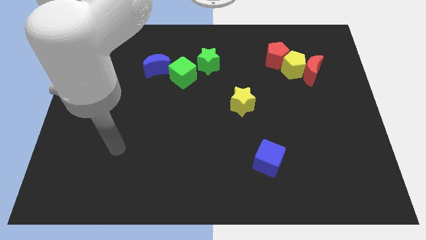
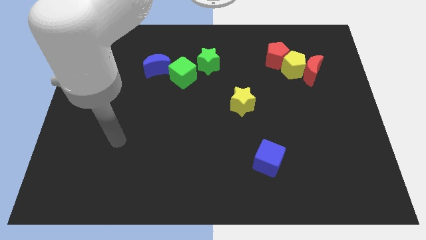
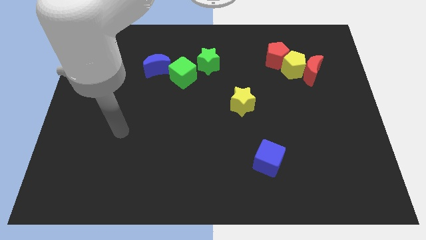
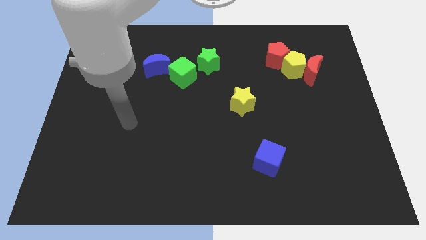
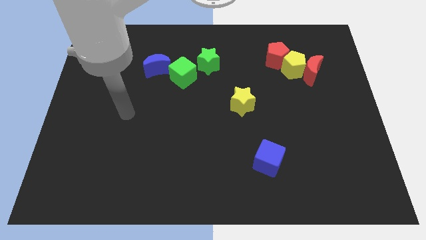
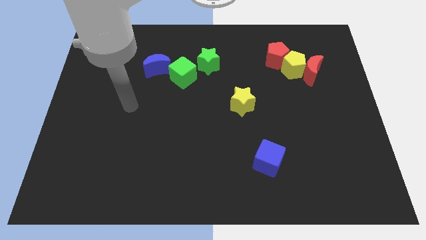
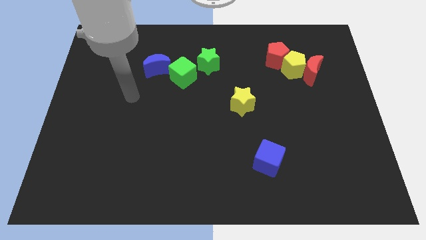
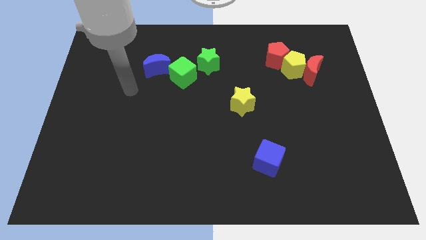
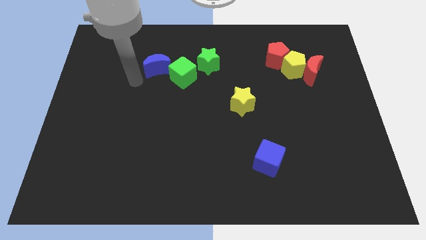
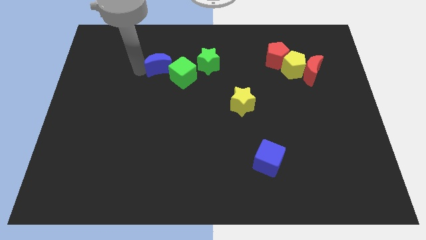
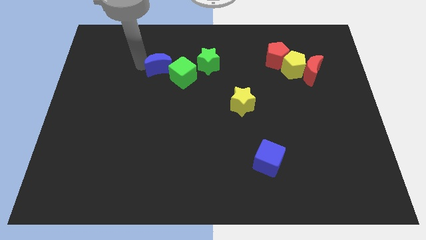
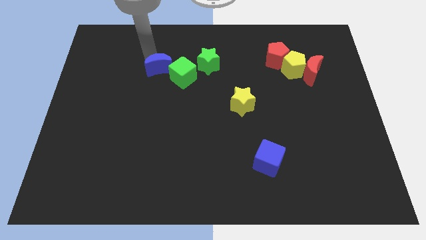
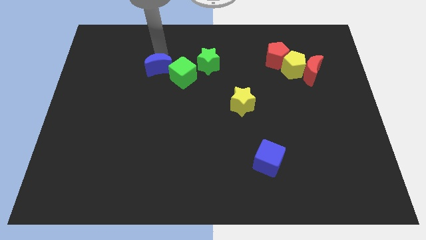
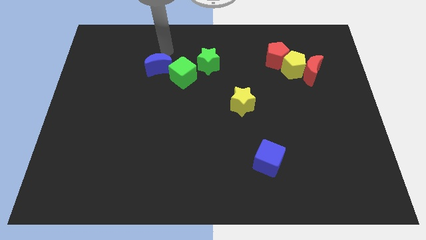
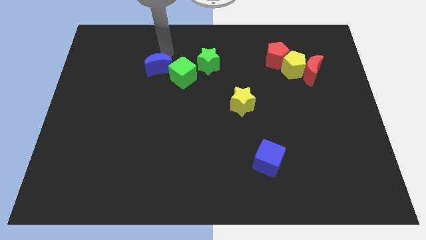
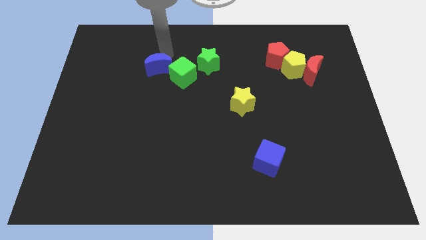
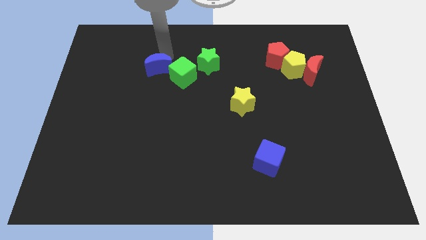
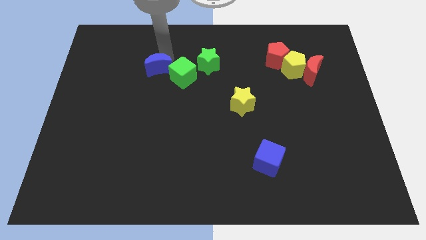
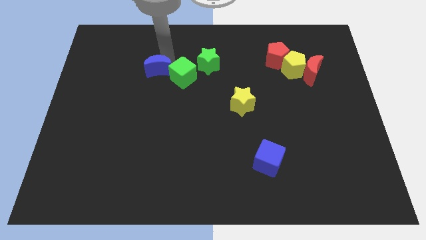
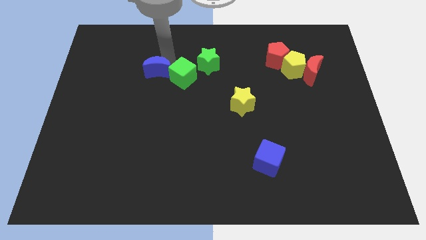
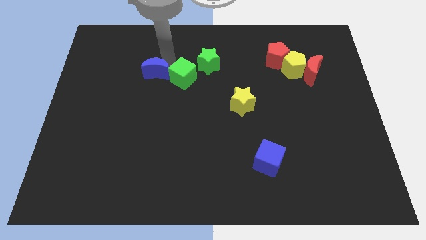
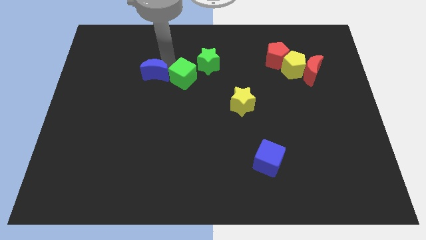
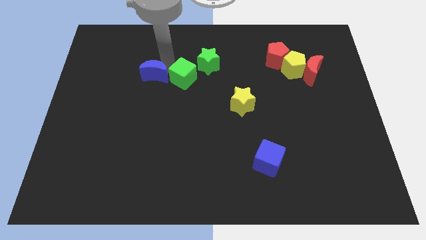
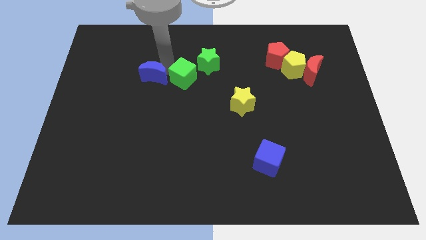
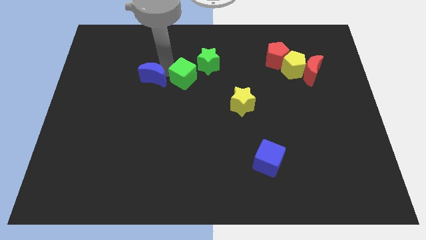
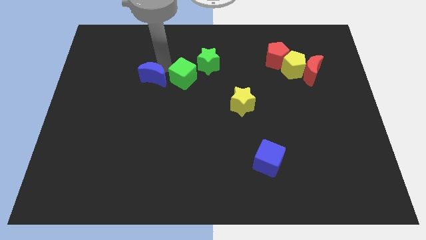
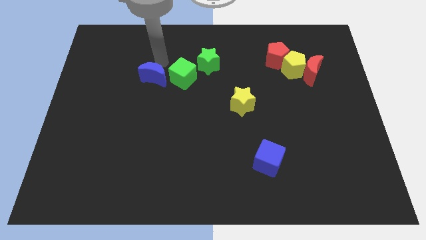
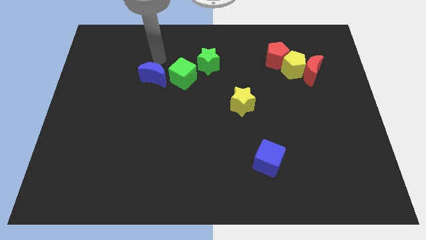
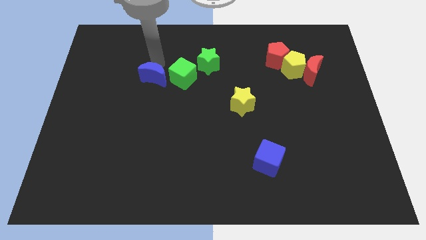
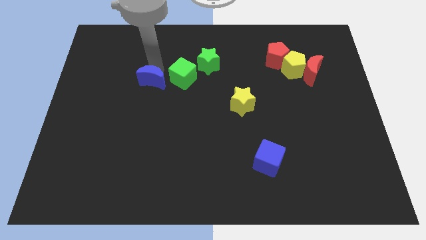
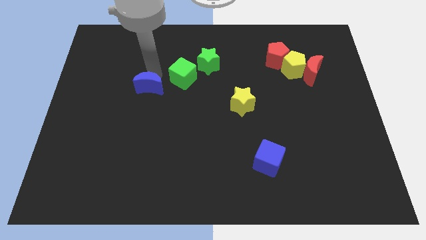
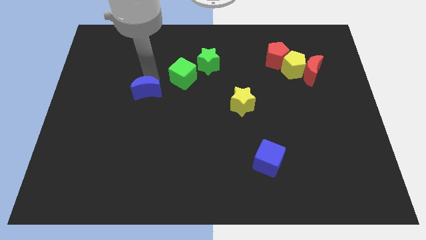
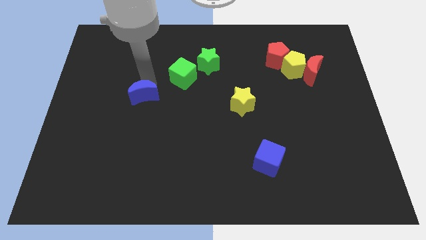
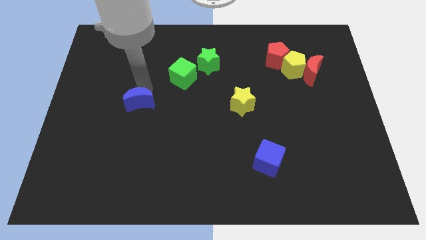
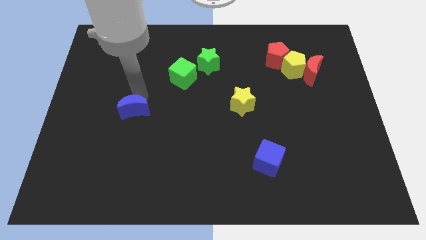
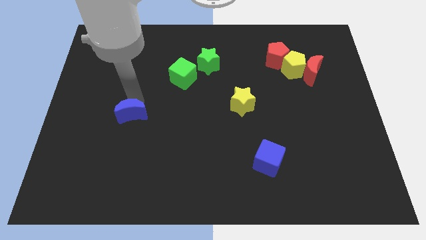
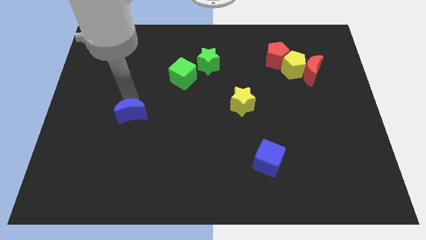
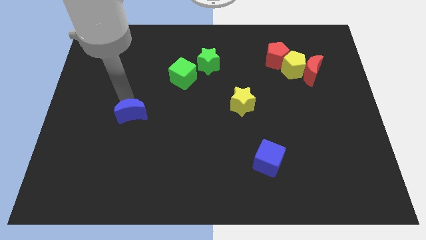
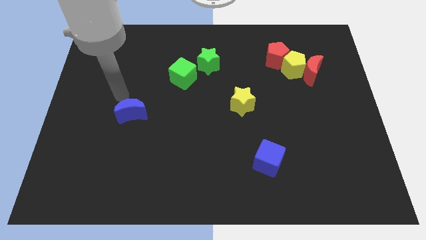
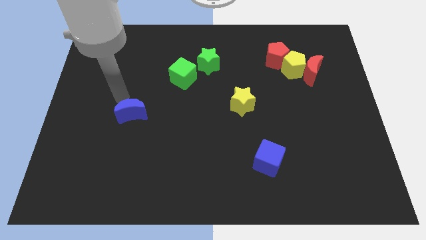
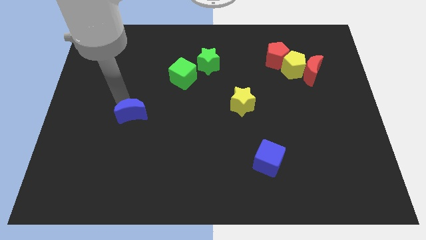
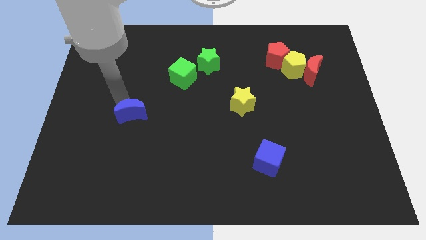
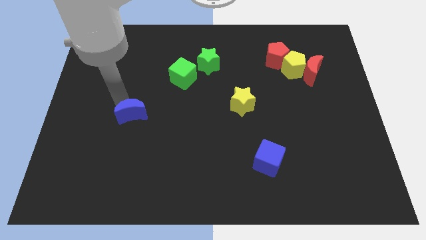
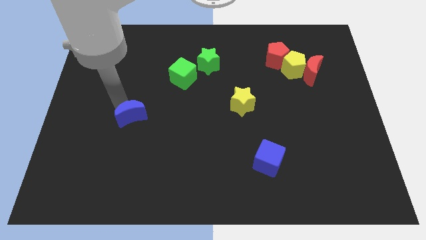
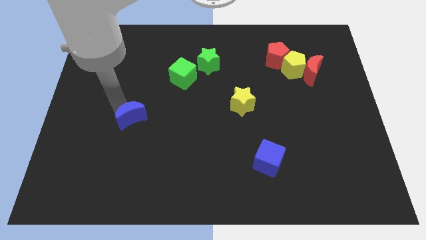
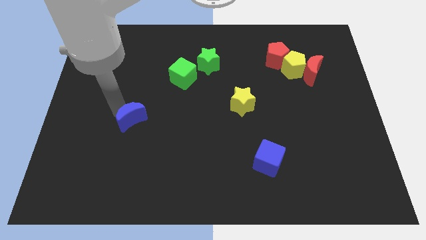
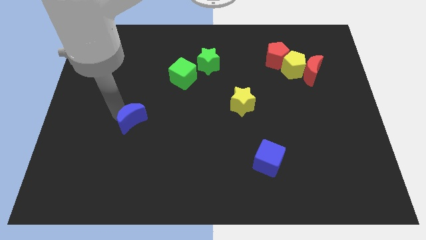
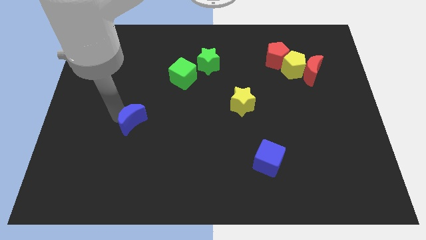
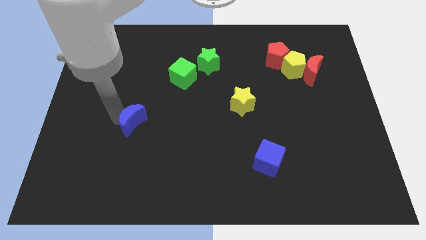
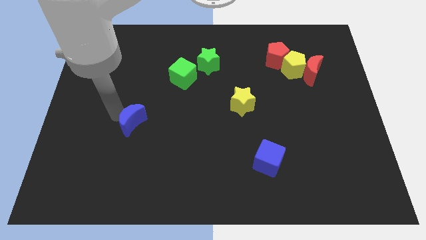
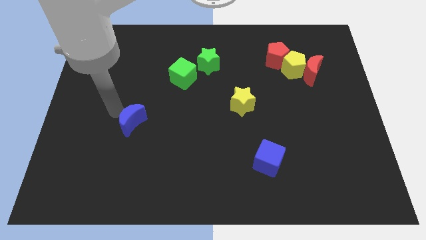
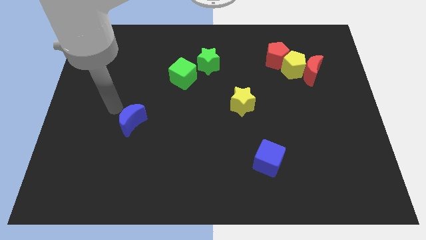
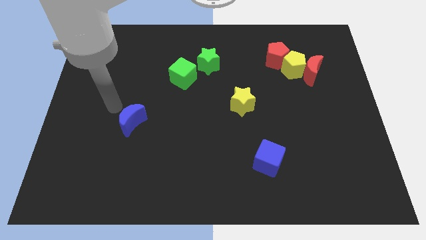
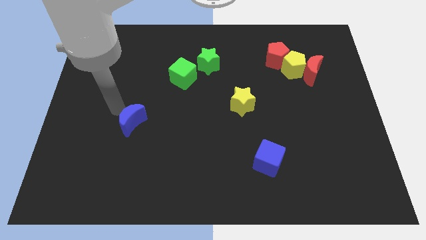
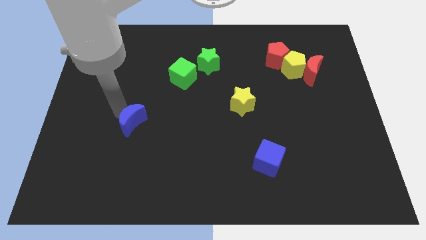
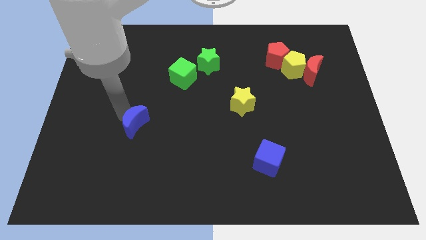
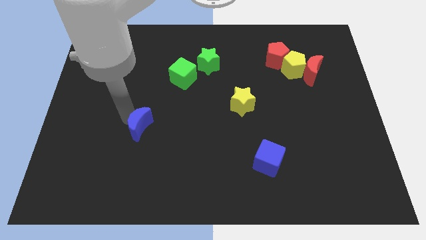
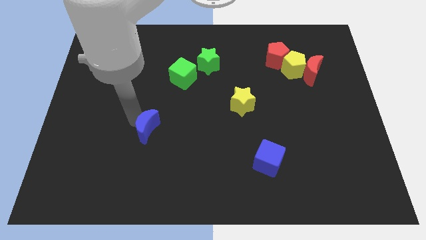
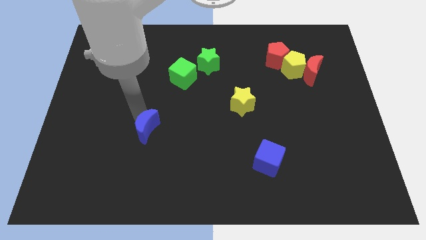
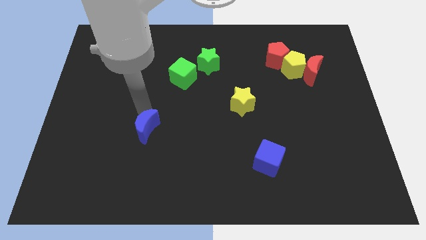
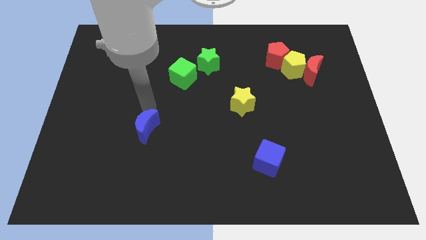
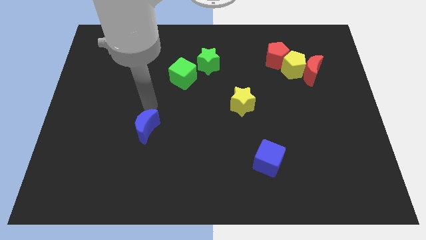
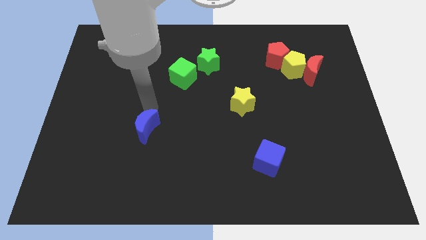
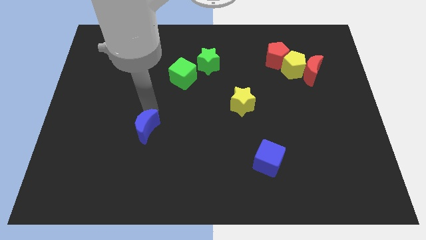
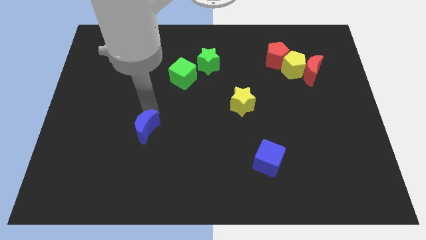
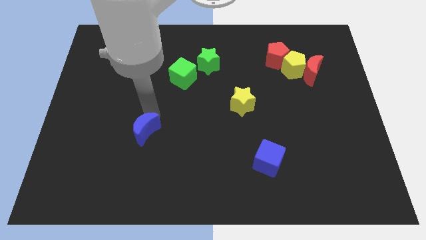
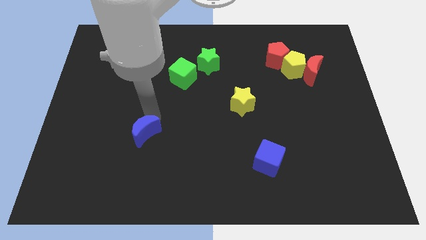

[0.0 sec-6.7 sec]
push the blue moon down

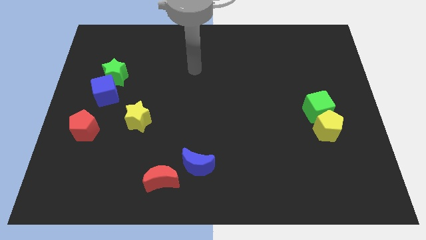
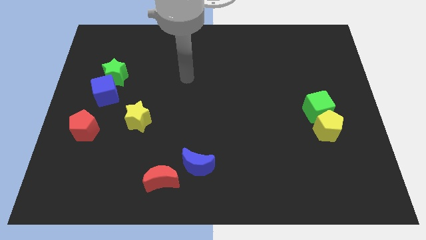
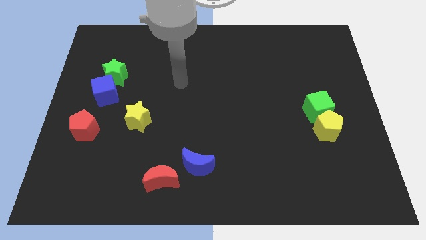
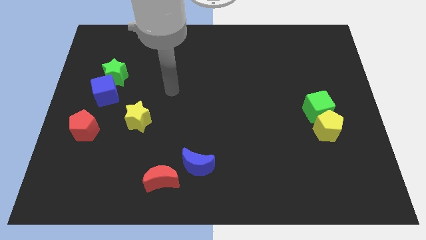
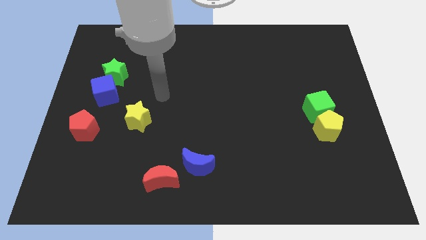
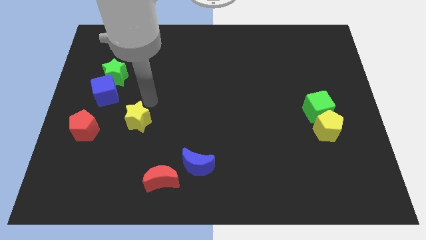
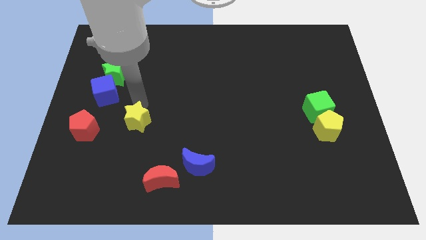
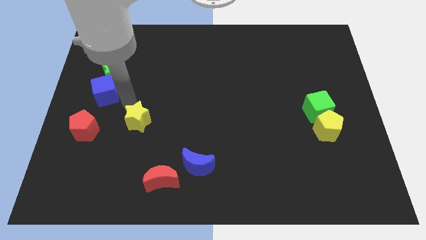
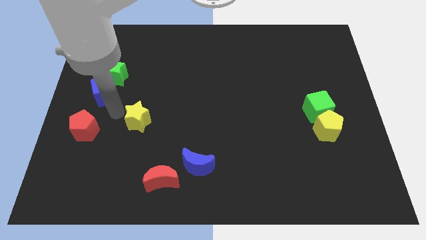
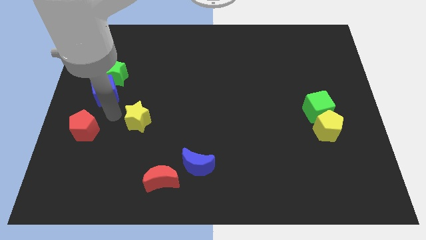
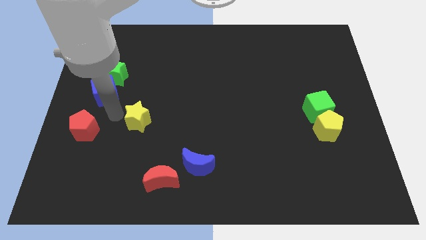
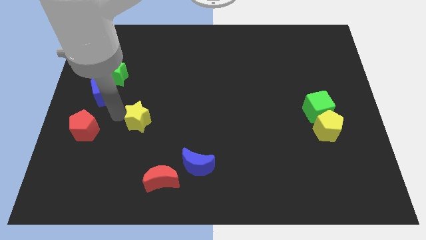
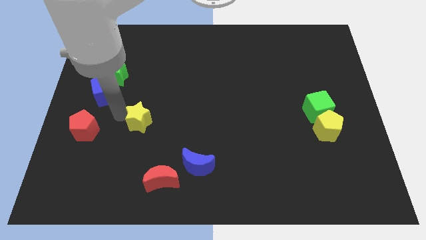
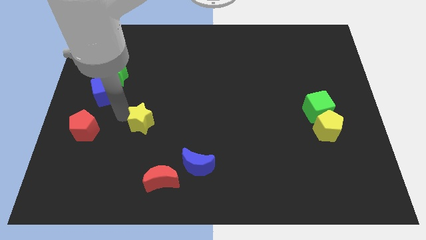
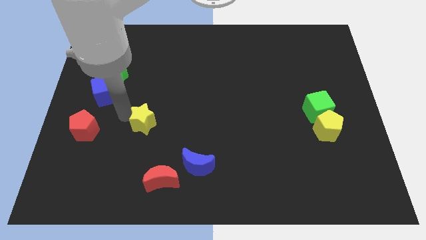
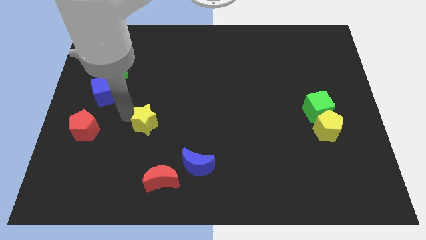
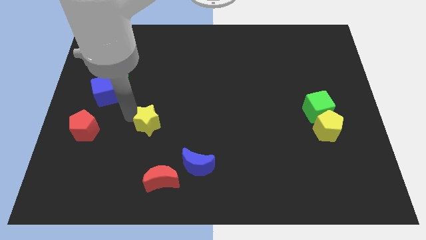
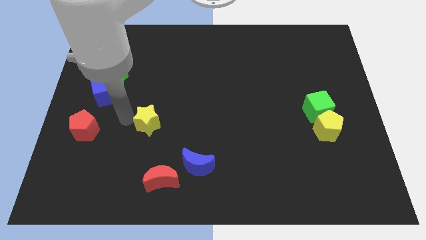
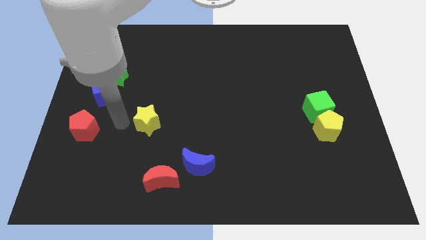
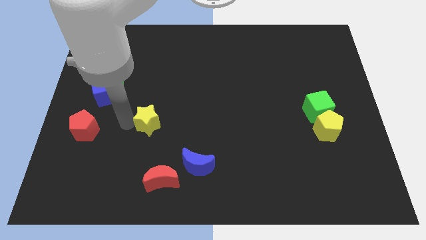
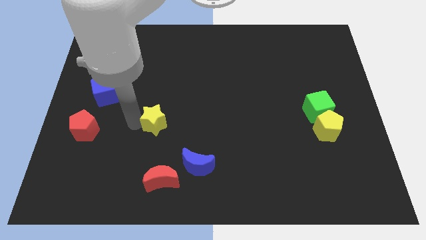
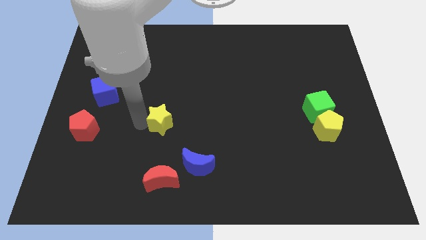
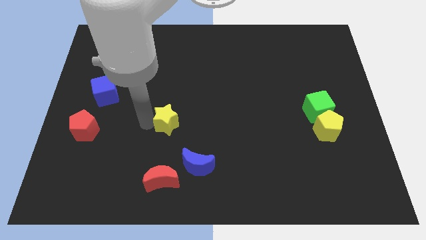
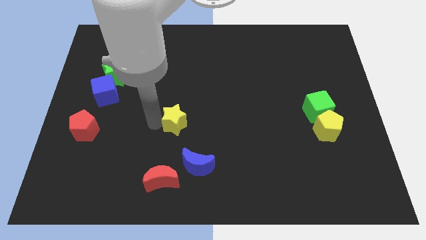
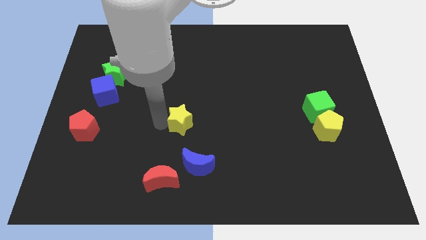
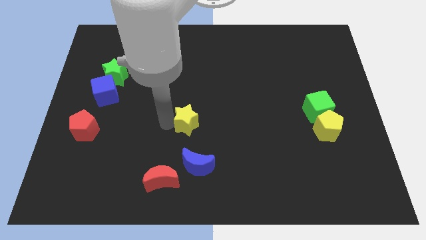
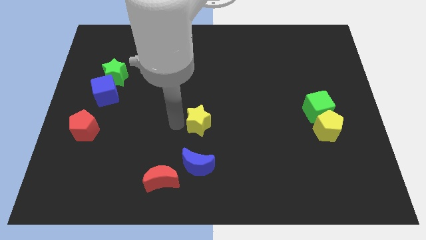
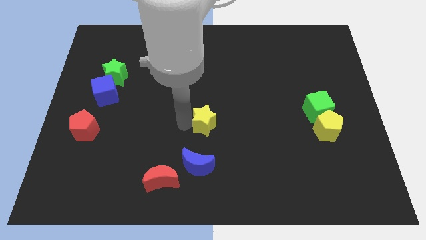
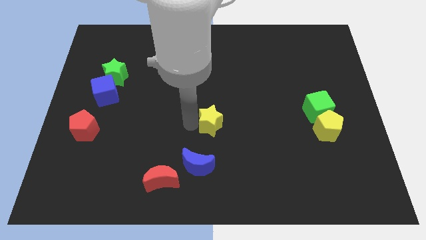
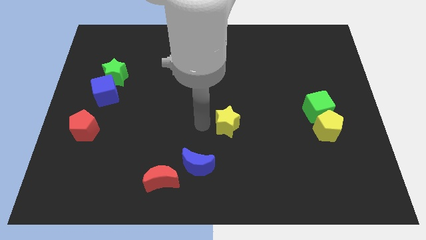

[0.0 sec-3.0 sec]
slide the yellow star right
